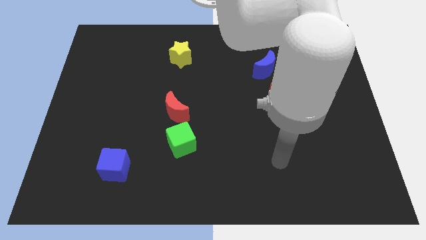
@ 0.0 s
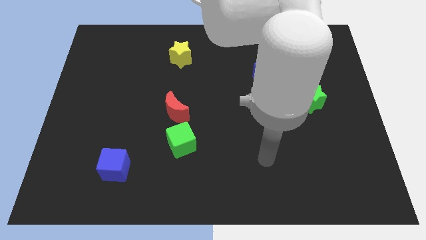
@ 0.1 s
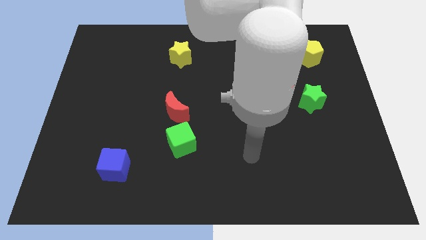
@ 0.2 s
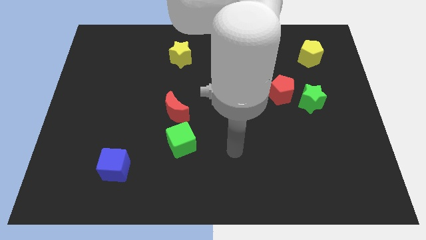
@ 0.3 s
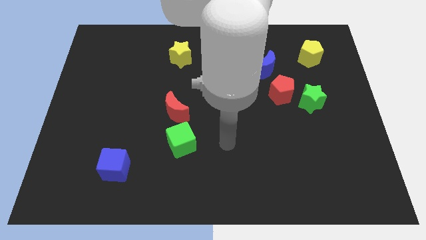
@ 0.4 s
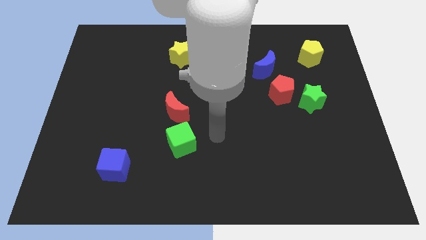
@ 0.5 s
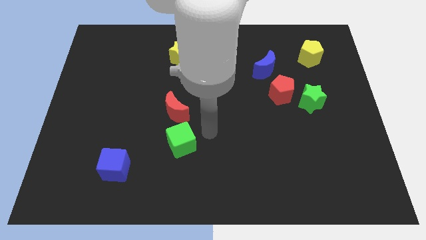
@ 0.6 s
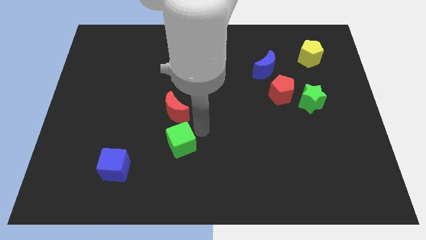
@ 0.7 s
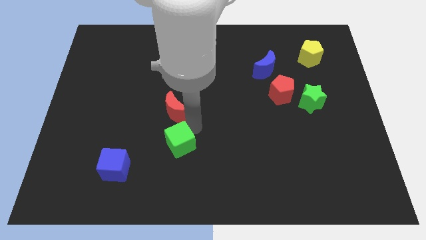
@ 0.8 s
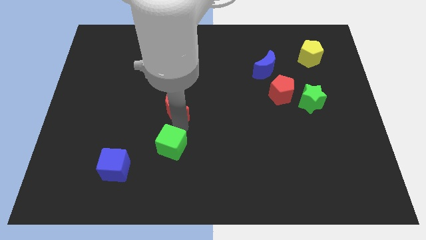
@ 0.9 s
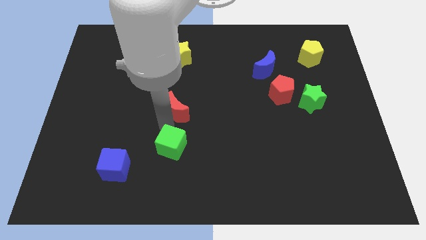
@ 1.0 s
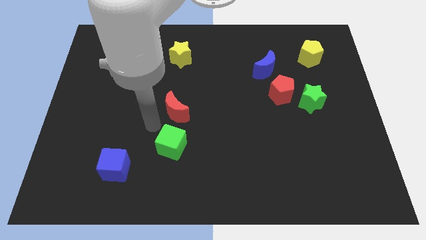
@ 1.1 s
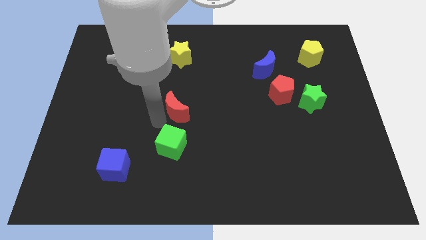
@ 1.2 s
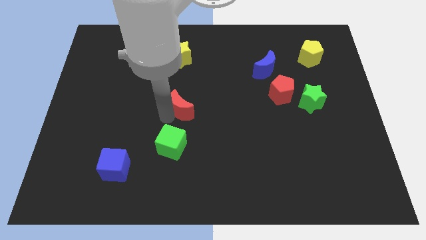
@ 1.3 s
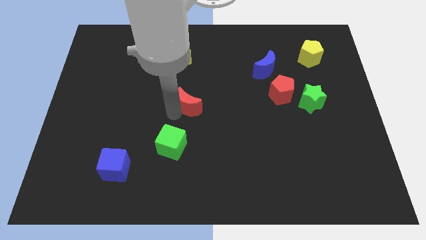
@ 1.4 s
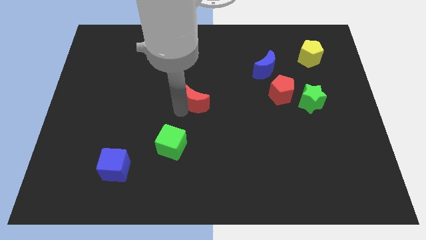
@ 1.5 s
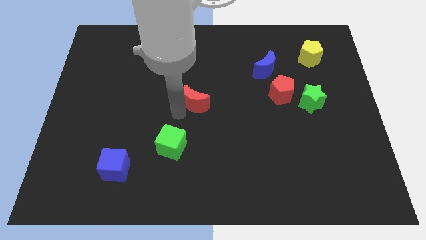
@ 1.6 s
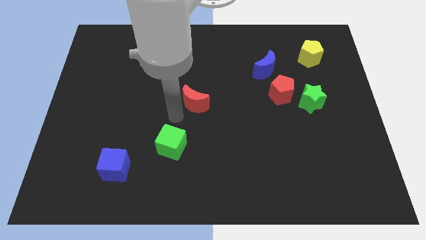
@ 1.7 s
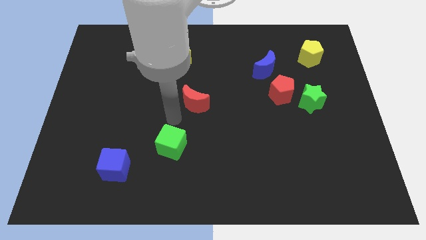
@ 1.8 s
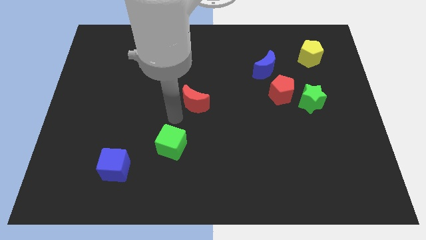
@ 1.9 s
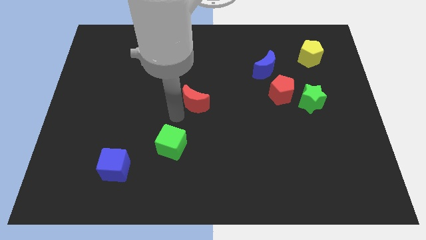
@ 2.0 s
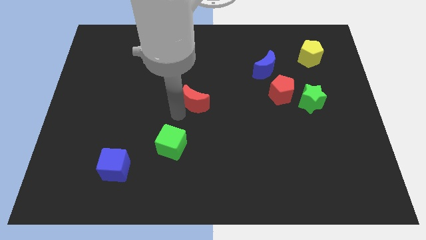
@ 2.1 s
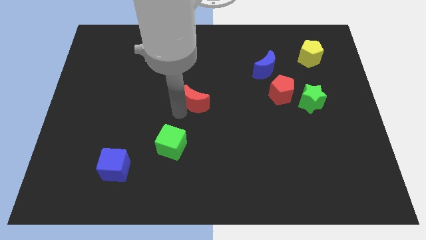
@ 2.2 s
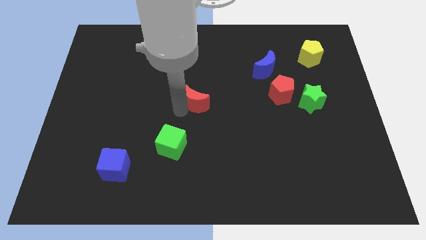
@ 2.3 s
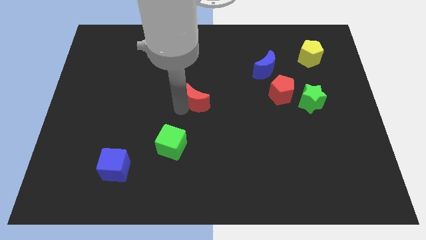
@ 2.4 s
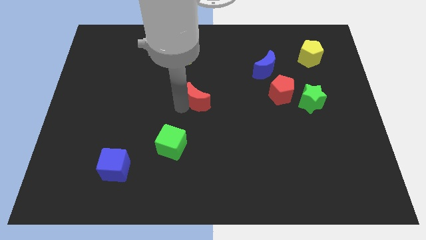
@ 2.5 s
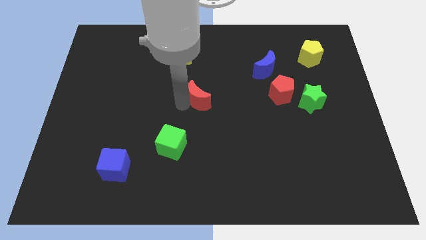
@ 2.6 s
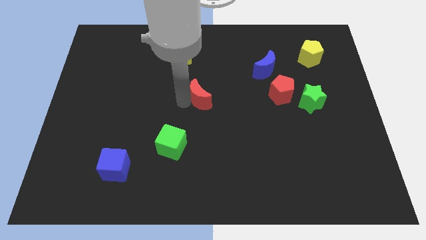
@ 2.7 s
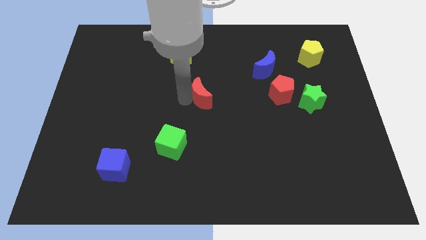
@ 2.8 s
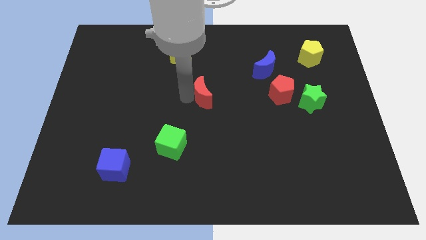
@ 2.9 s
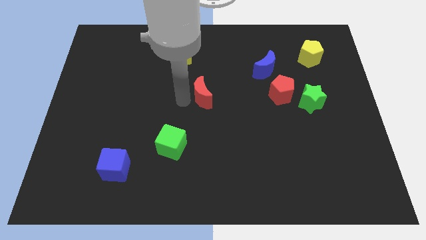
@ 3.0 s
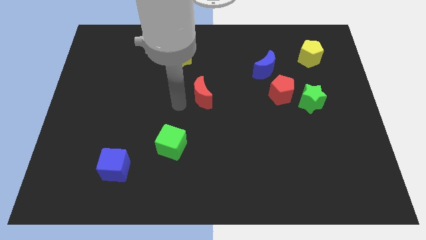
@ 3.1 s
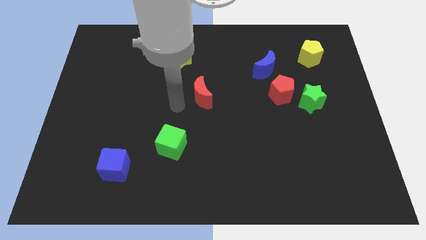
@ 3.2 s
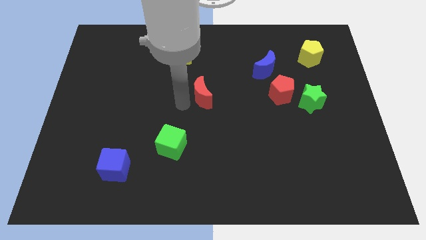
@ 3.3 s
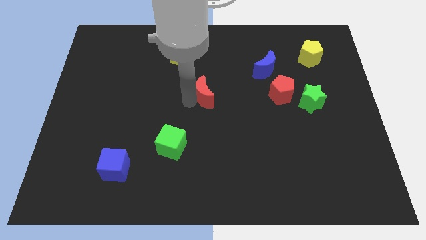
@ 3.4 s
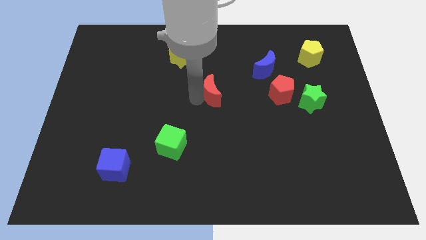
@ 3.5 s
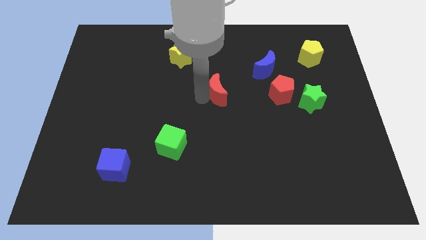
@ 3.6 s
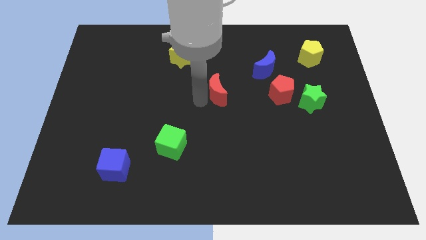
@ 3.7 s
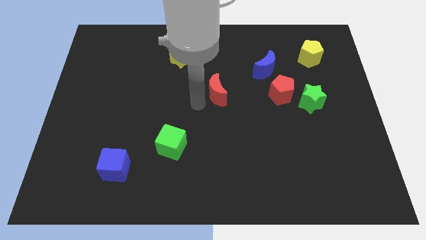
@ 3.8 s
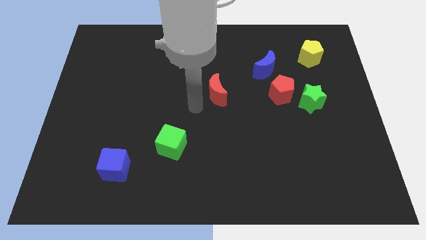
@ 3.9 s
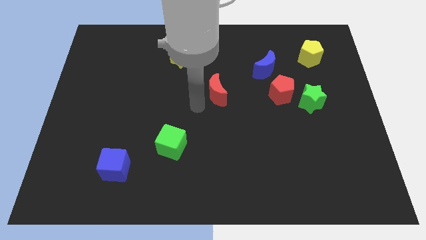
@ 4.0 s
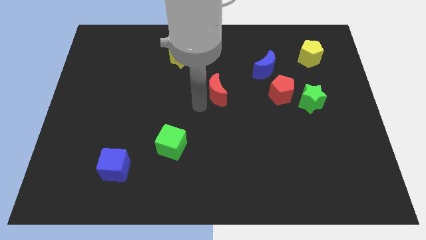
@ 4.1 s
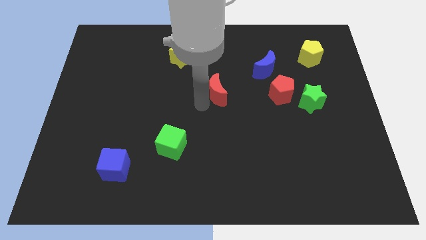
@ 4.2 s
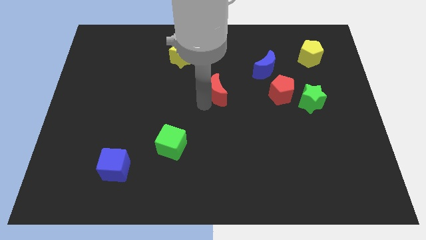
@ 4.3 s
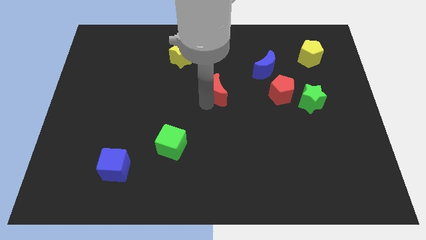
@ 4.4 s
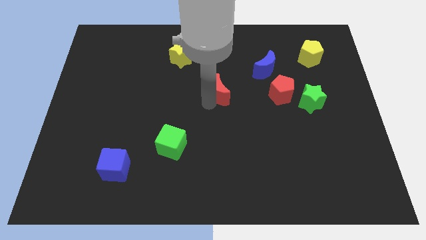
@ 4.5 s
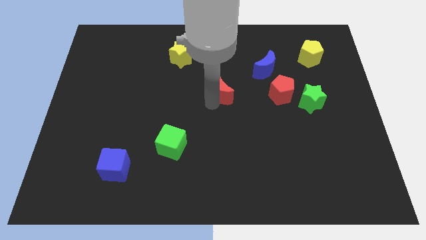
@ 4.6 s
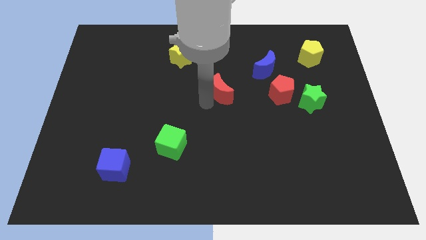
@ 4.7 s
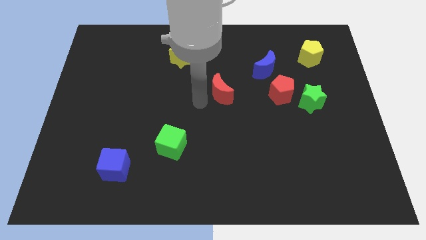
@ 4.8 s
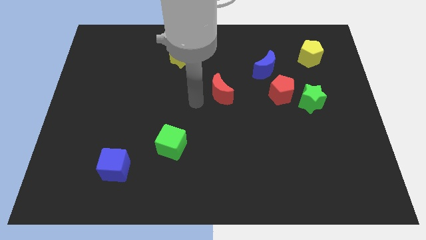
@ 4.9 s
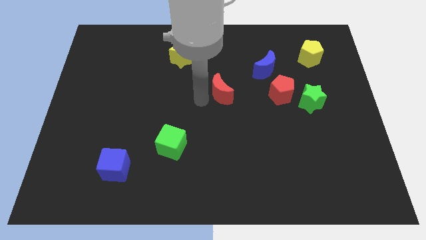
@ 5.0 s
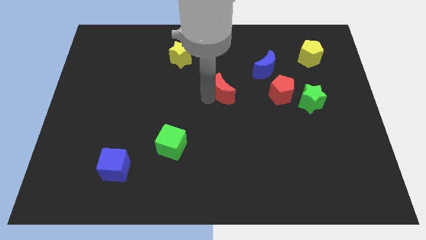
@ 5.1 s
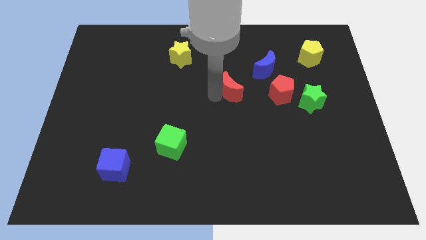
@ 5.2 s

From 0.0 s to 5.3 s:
slide the red moon to the bottom left side of the blue moon

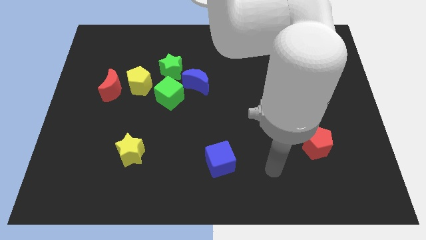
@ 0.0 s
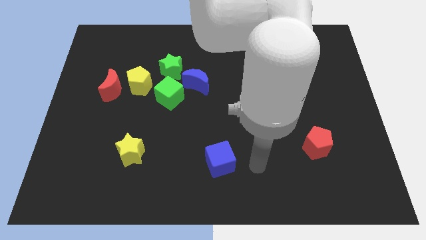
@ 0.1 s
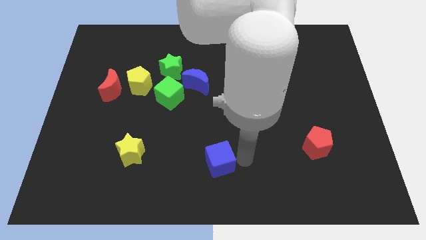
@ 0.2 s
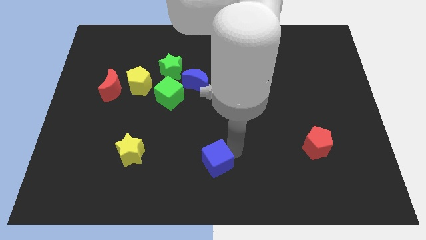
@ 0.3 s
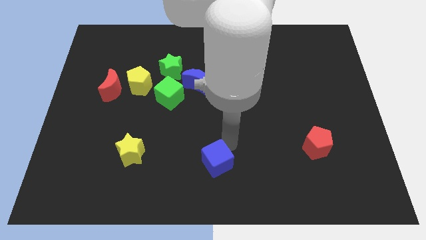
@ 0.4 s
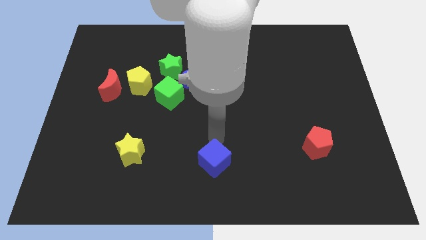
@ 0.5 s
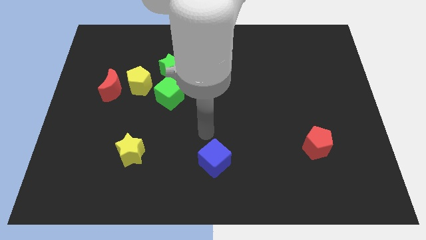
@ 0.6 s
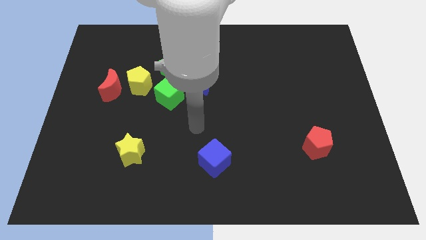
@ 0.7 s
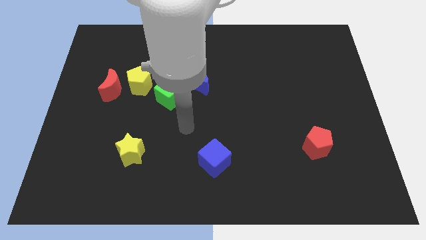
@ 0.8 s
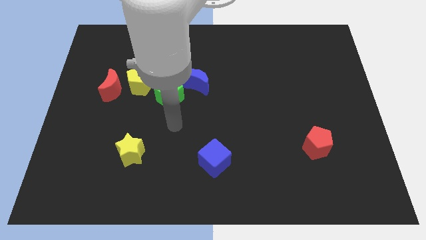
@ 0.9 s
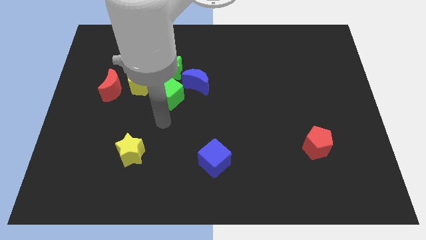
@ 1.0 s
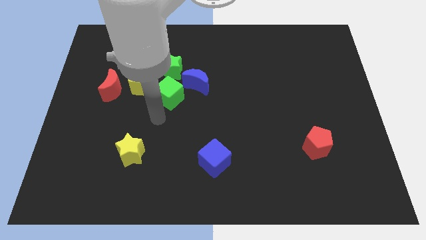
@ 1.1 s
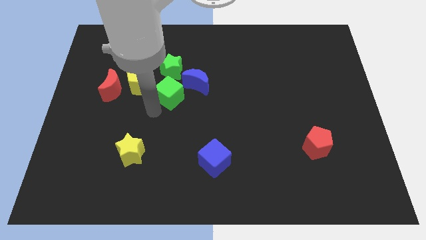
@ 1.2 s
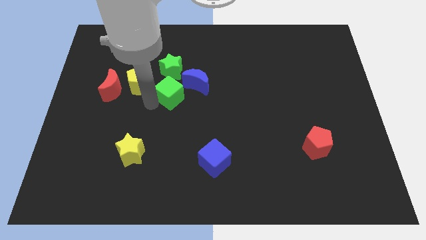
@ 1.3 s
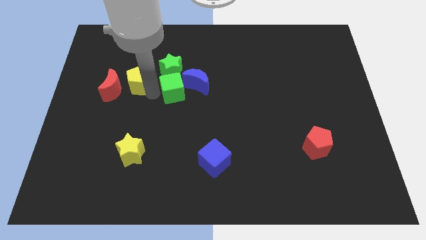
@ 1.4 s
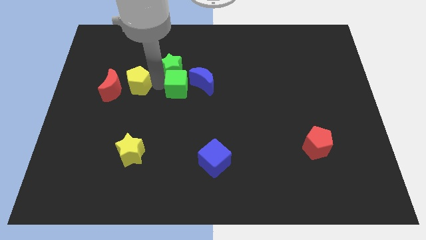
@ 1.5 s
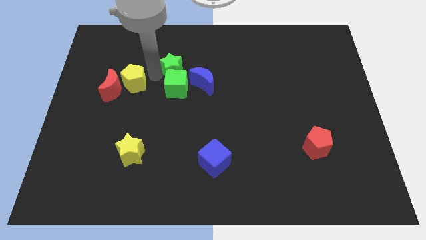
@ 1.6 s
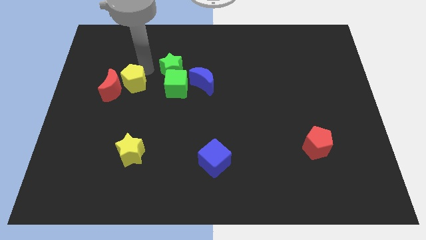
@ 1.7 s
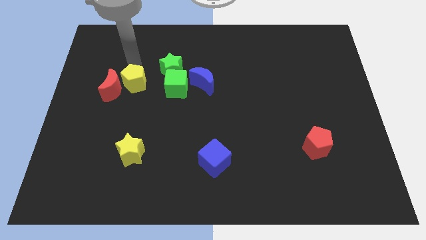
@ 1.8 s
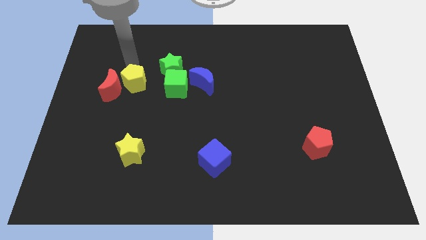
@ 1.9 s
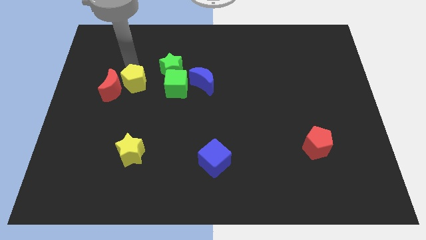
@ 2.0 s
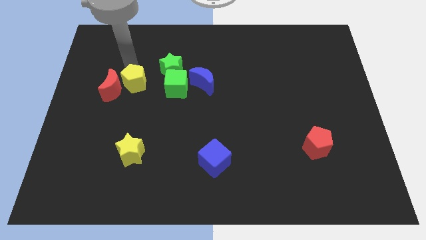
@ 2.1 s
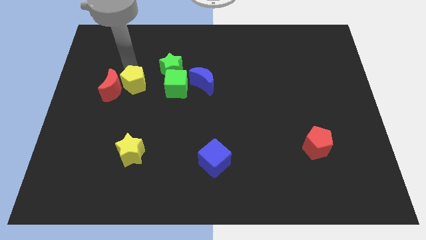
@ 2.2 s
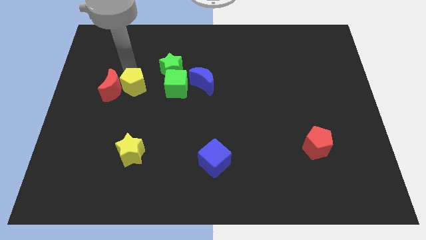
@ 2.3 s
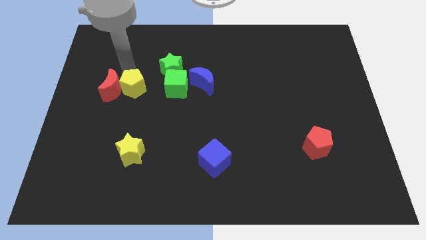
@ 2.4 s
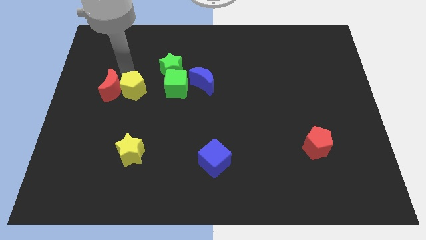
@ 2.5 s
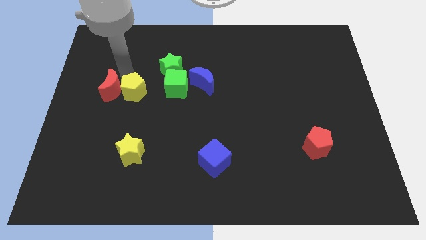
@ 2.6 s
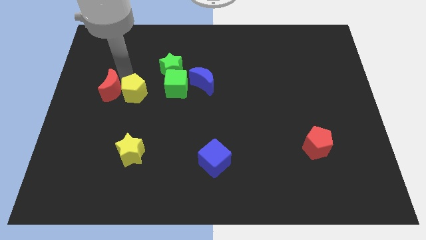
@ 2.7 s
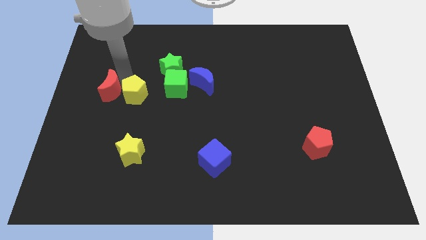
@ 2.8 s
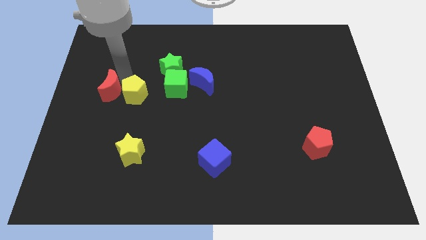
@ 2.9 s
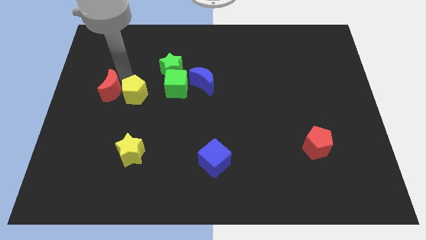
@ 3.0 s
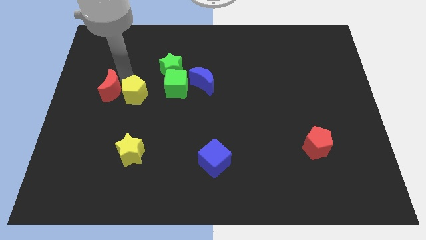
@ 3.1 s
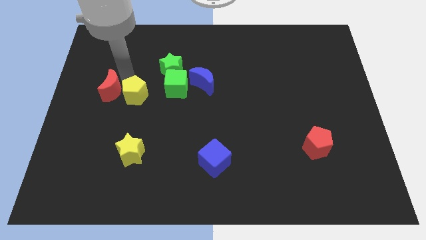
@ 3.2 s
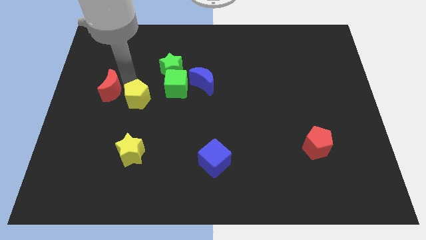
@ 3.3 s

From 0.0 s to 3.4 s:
push the yellow pentagon to the bottom left of the green cube
